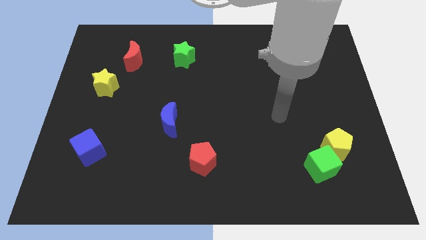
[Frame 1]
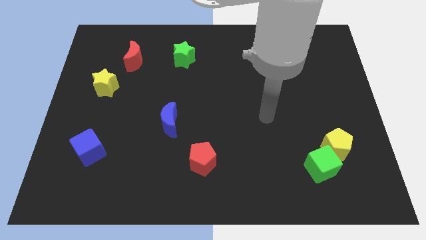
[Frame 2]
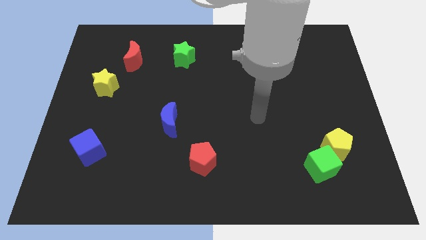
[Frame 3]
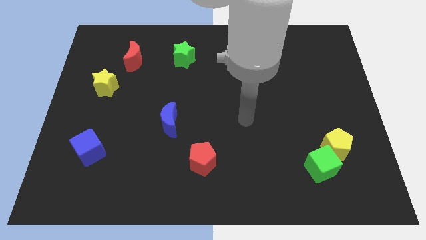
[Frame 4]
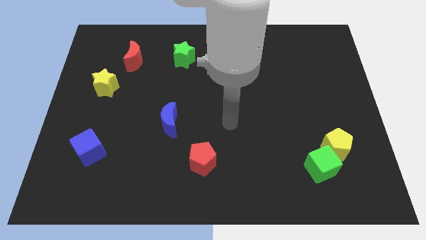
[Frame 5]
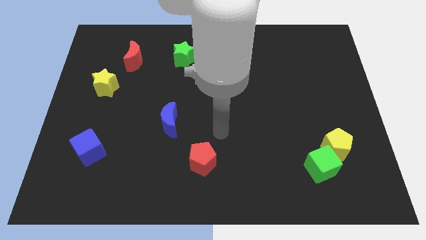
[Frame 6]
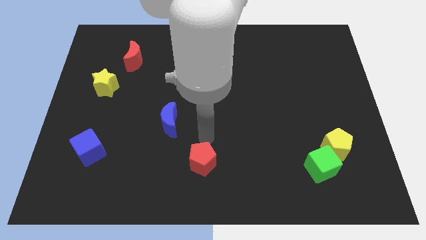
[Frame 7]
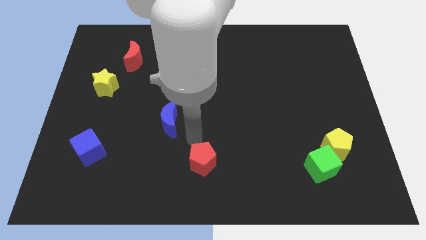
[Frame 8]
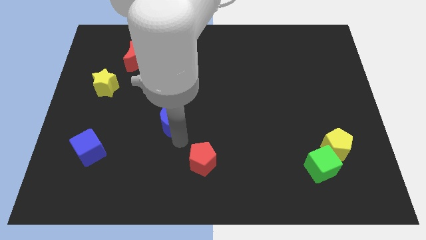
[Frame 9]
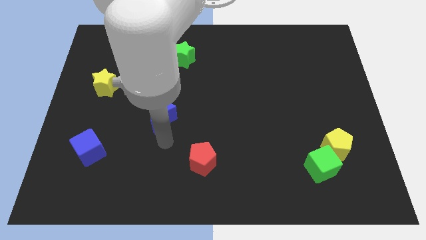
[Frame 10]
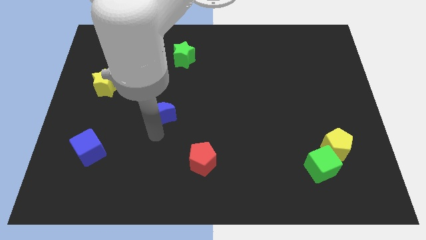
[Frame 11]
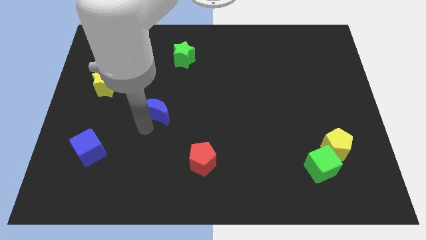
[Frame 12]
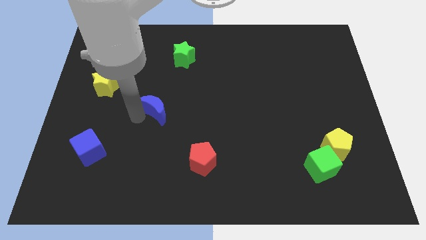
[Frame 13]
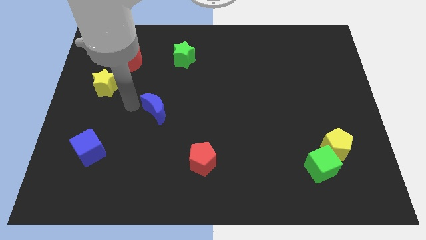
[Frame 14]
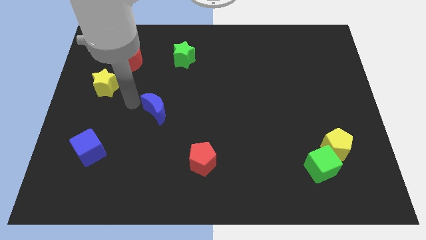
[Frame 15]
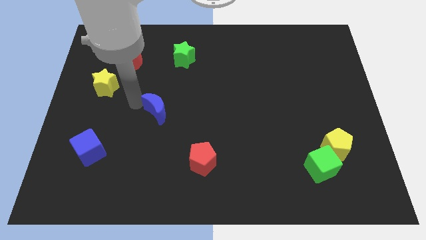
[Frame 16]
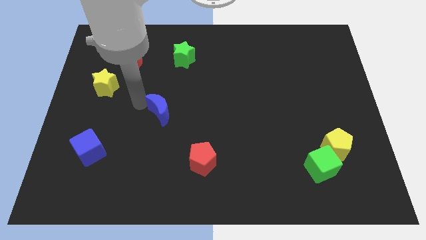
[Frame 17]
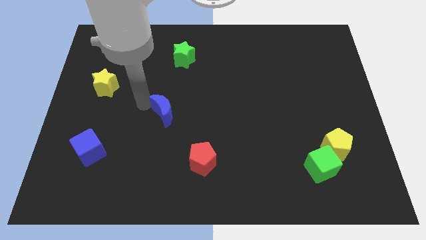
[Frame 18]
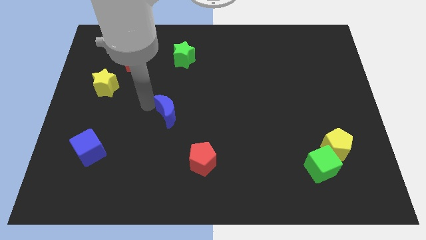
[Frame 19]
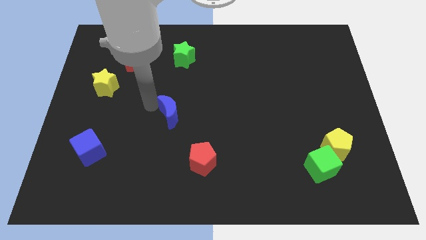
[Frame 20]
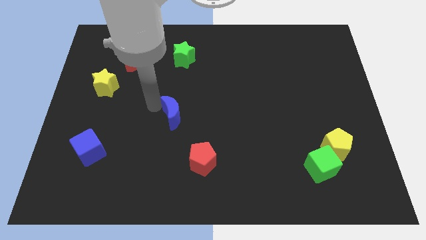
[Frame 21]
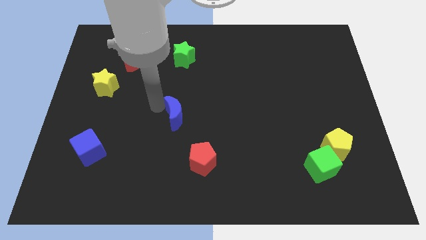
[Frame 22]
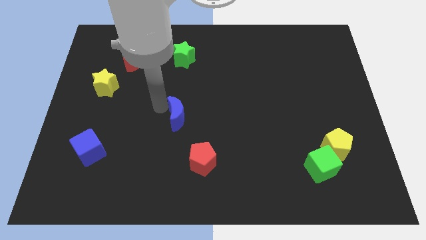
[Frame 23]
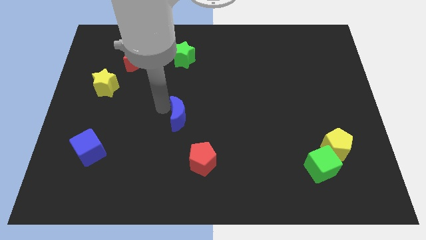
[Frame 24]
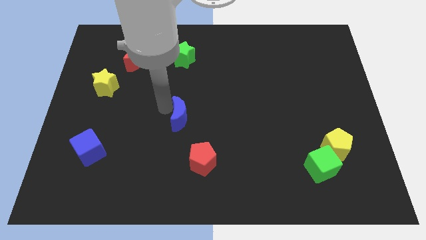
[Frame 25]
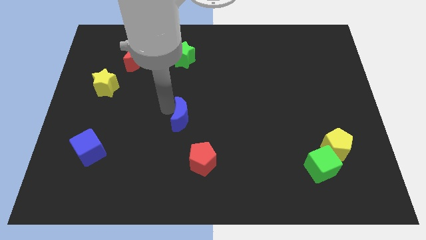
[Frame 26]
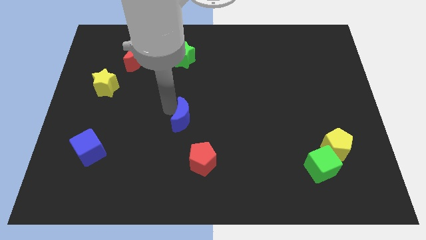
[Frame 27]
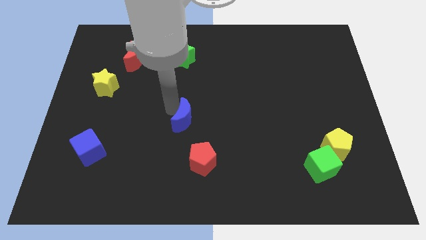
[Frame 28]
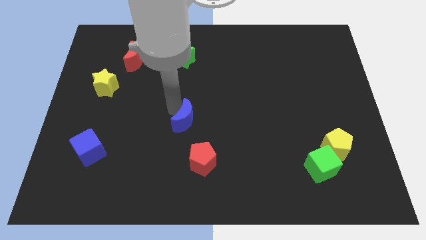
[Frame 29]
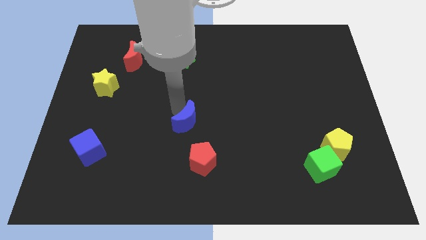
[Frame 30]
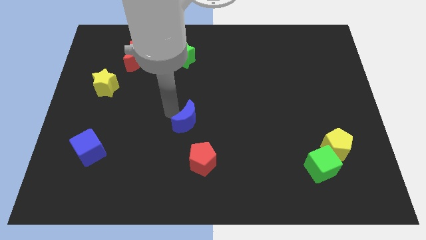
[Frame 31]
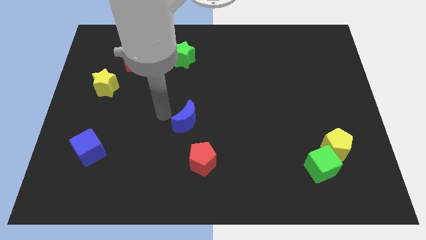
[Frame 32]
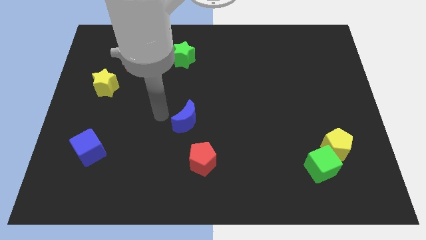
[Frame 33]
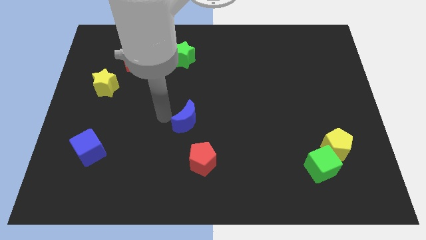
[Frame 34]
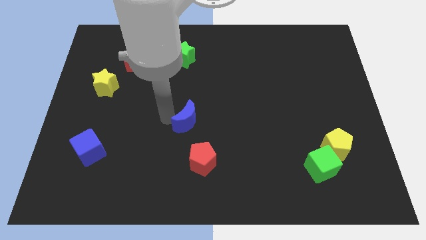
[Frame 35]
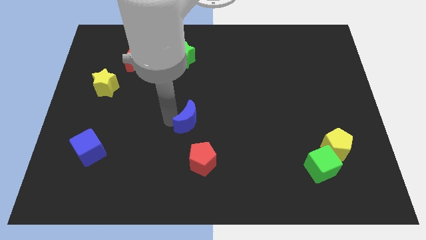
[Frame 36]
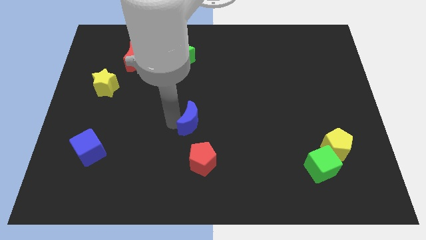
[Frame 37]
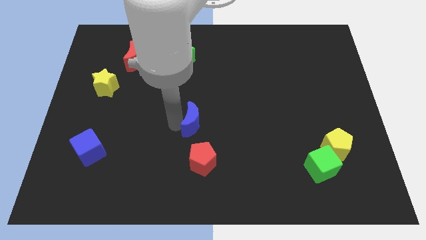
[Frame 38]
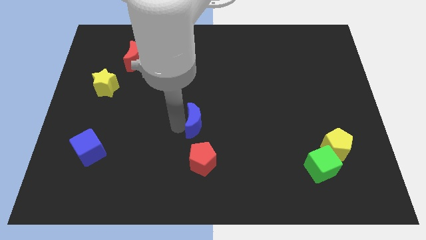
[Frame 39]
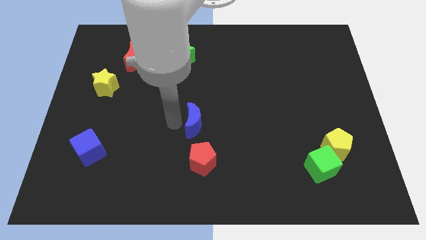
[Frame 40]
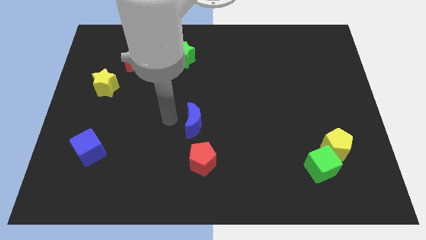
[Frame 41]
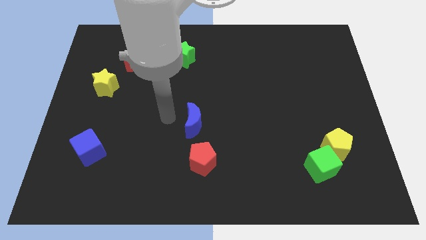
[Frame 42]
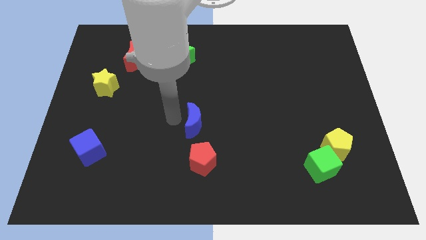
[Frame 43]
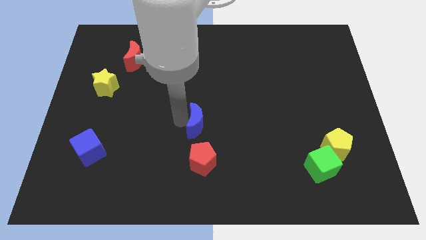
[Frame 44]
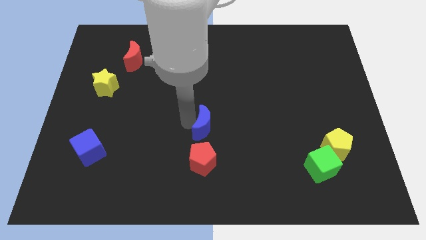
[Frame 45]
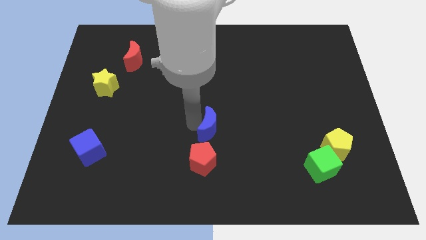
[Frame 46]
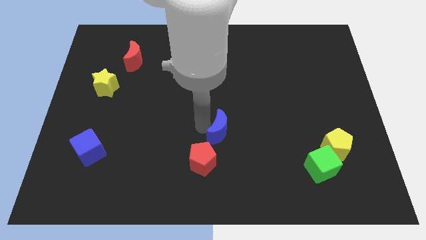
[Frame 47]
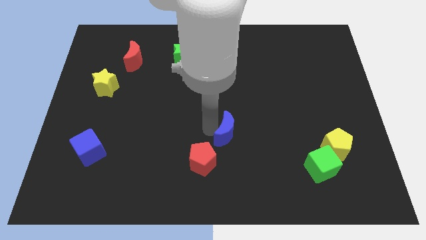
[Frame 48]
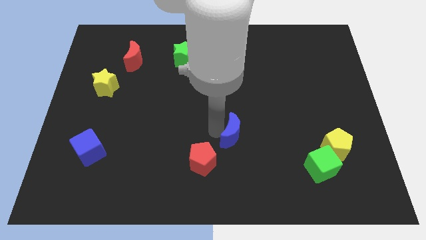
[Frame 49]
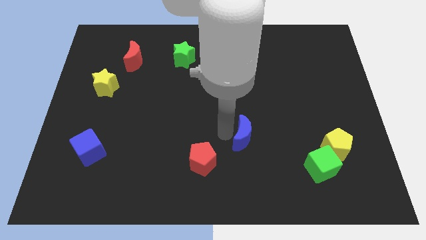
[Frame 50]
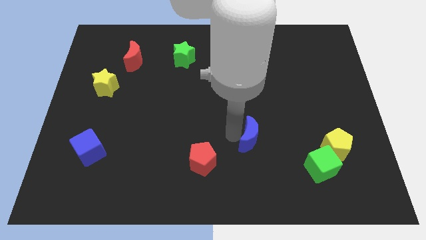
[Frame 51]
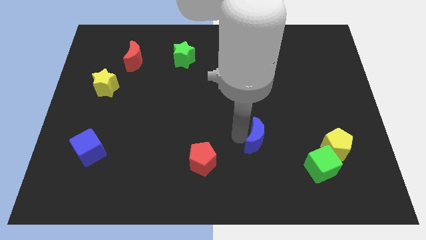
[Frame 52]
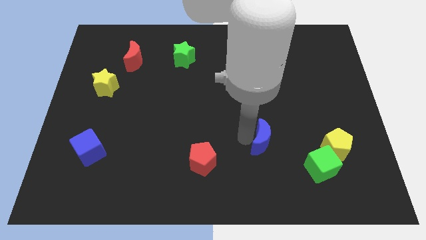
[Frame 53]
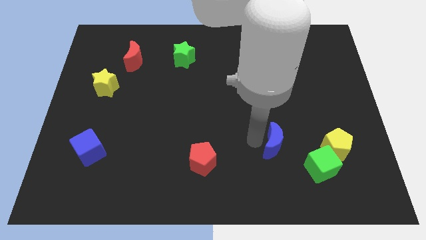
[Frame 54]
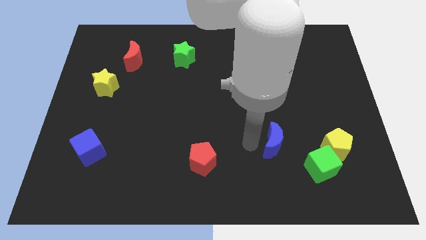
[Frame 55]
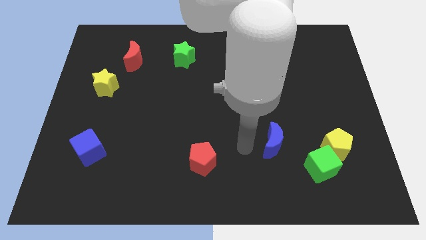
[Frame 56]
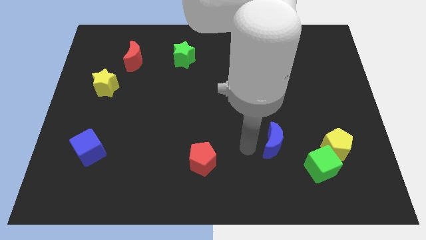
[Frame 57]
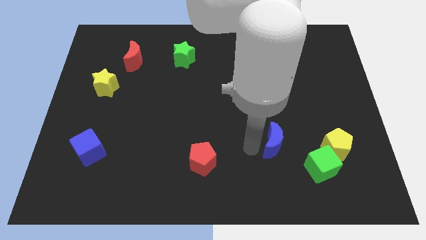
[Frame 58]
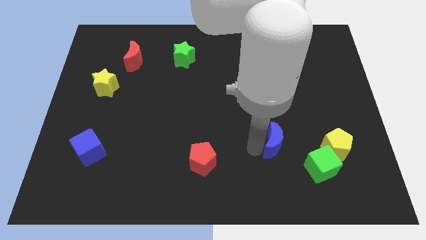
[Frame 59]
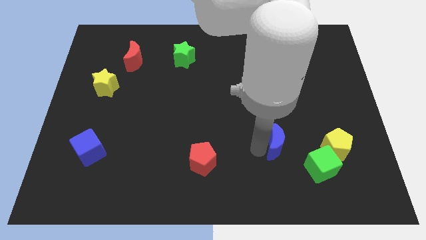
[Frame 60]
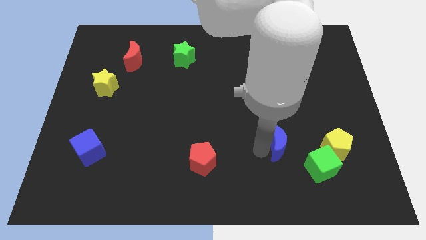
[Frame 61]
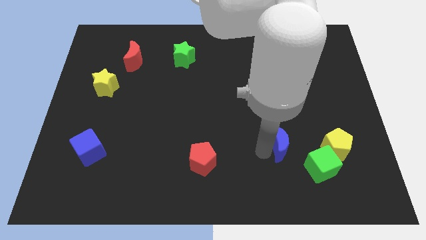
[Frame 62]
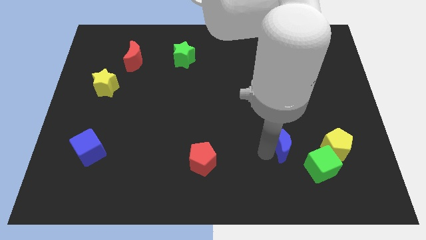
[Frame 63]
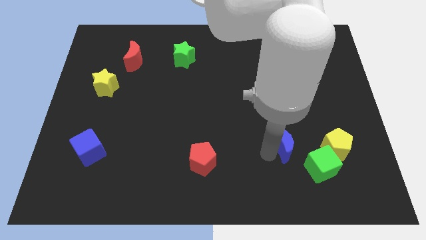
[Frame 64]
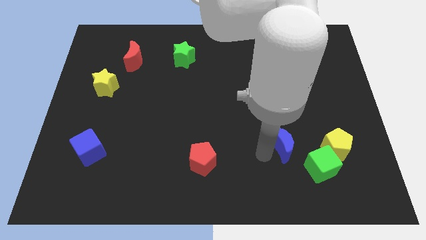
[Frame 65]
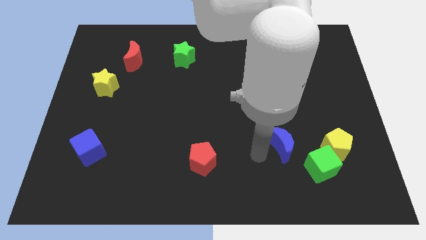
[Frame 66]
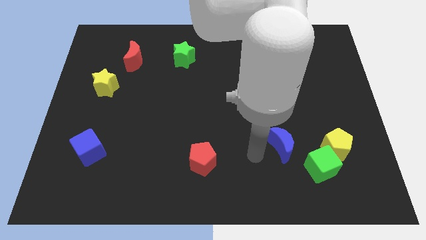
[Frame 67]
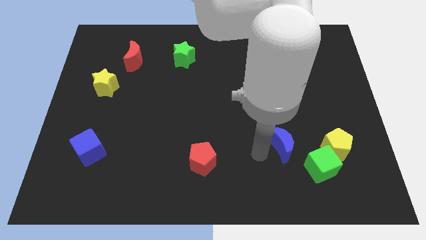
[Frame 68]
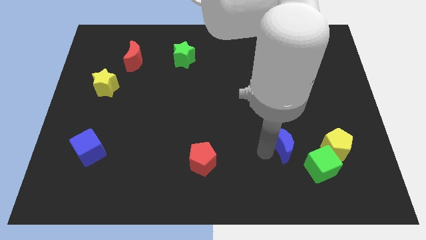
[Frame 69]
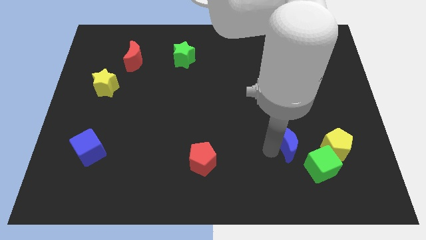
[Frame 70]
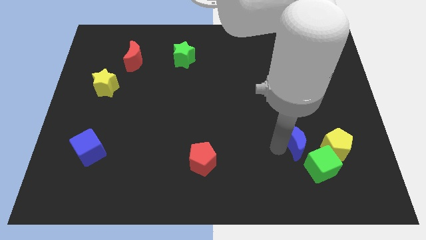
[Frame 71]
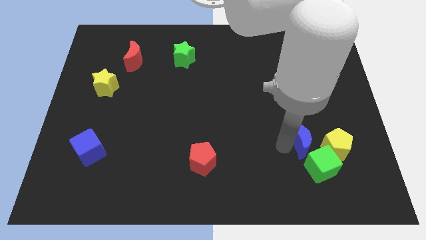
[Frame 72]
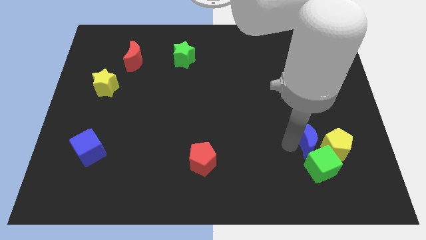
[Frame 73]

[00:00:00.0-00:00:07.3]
push the blue moon next to the yellow pentagon
